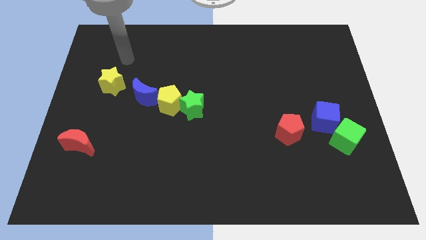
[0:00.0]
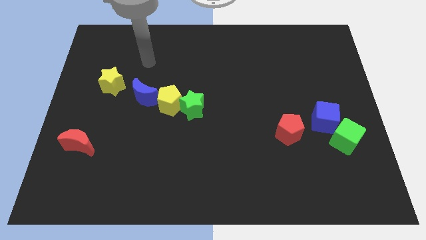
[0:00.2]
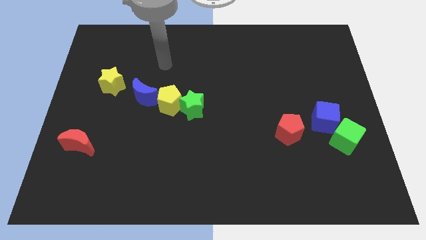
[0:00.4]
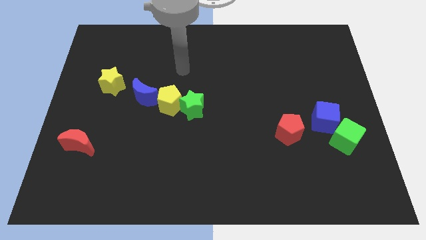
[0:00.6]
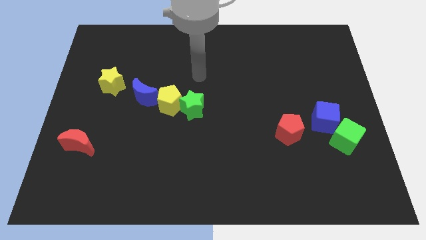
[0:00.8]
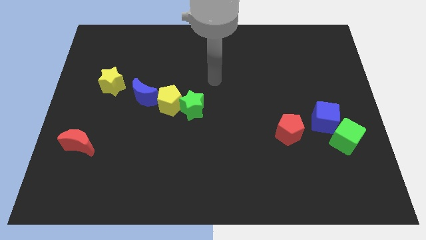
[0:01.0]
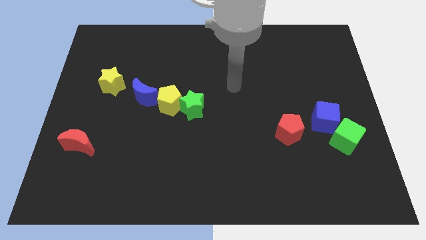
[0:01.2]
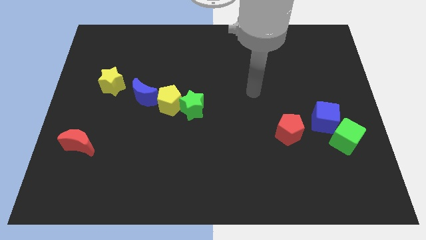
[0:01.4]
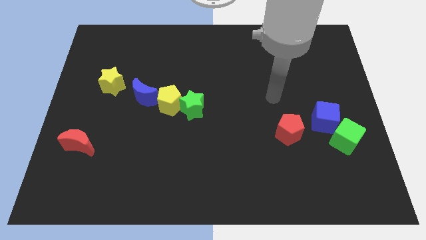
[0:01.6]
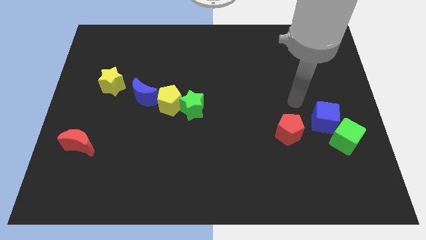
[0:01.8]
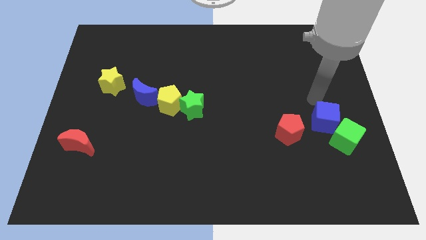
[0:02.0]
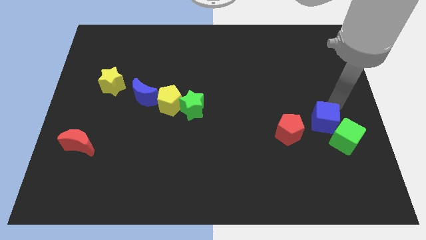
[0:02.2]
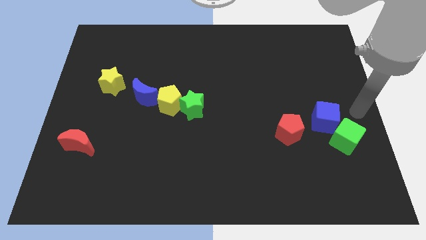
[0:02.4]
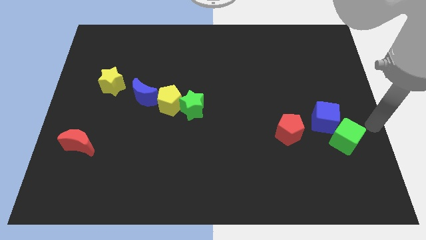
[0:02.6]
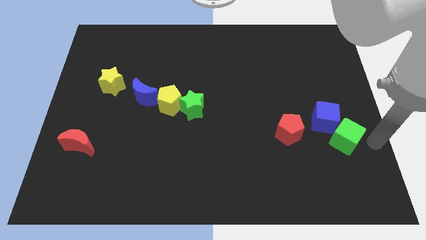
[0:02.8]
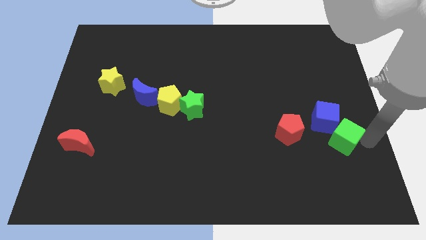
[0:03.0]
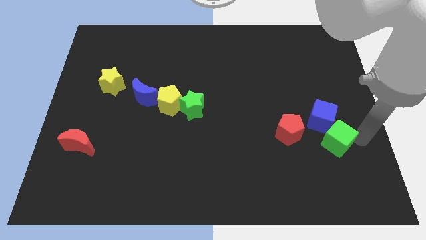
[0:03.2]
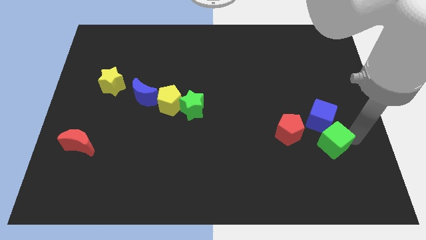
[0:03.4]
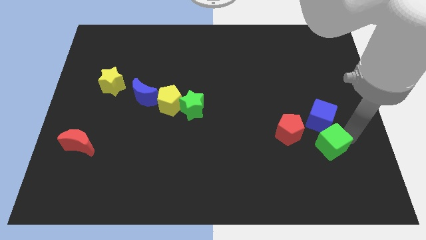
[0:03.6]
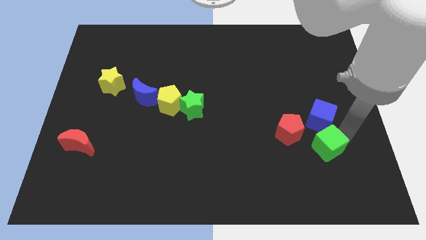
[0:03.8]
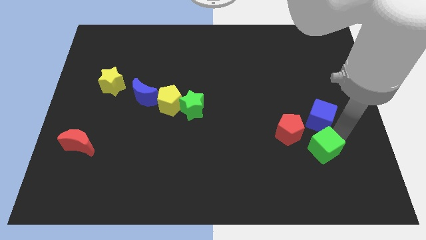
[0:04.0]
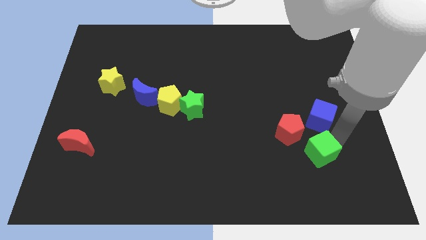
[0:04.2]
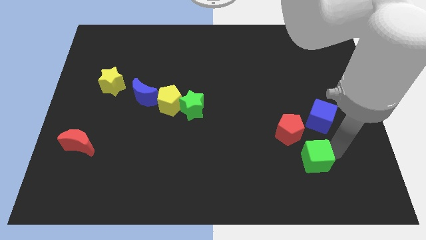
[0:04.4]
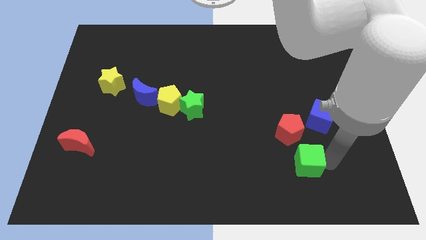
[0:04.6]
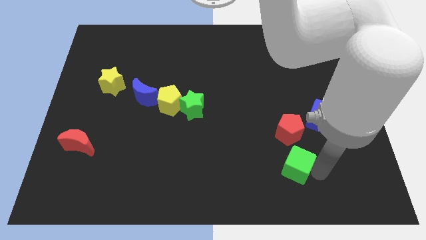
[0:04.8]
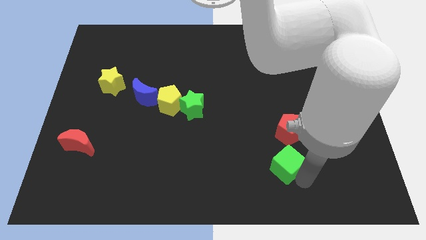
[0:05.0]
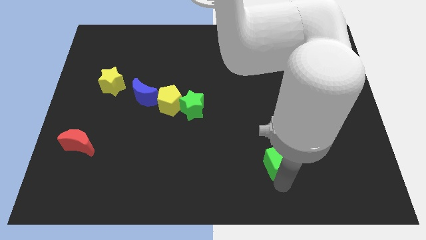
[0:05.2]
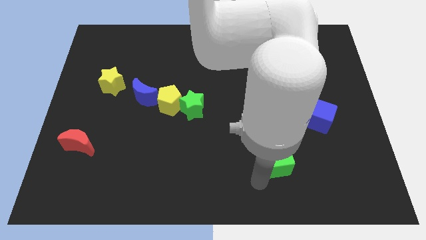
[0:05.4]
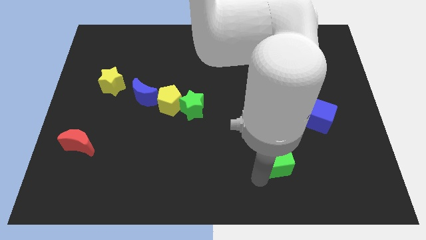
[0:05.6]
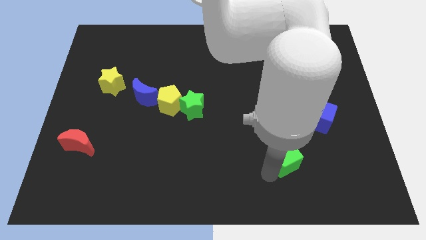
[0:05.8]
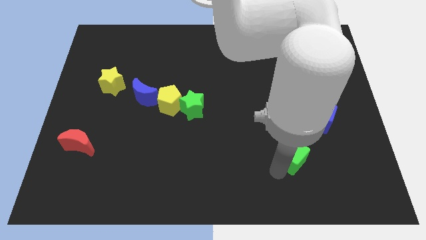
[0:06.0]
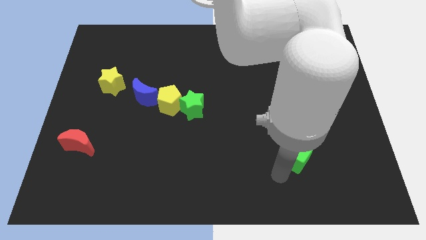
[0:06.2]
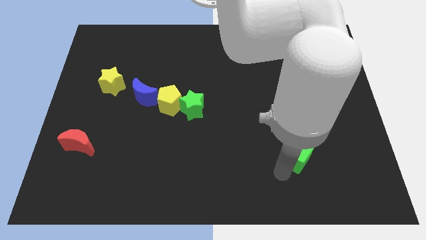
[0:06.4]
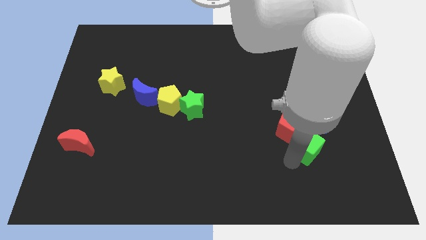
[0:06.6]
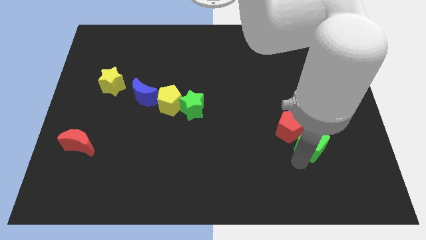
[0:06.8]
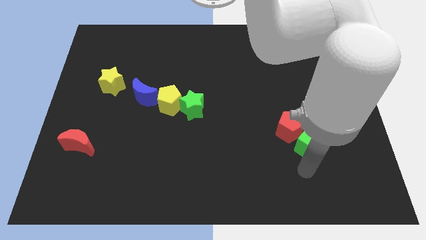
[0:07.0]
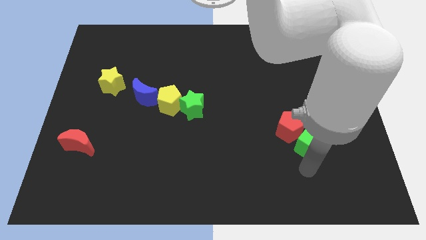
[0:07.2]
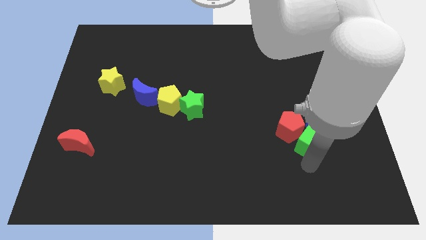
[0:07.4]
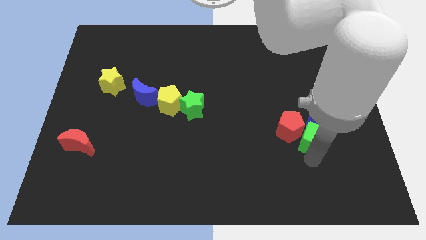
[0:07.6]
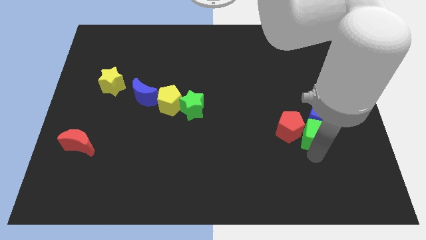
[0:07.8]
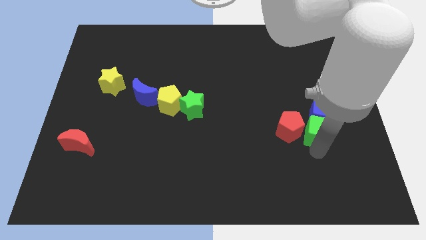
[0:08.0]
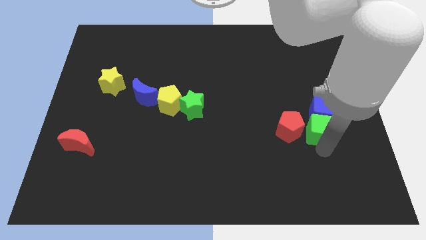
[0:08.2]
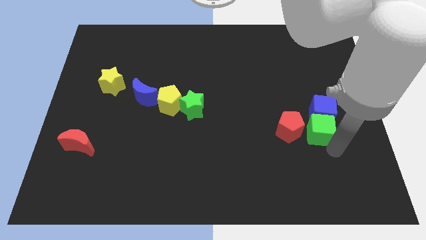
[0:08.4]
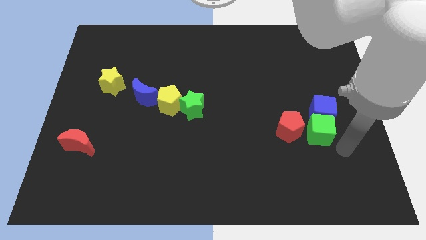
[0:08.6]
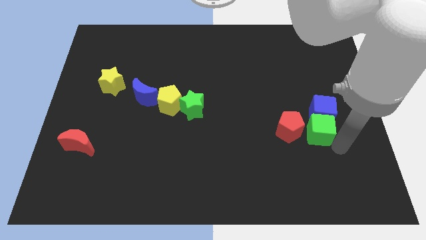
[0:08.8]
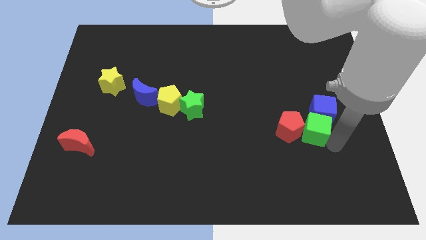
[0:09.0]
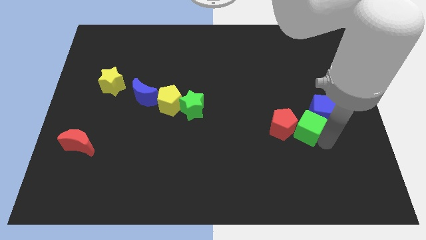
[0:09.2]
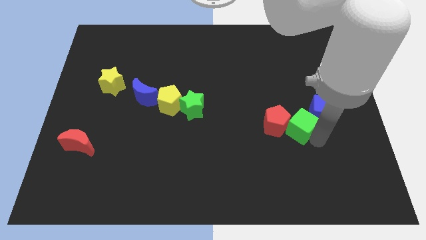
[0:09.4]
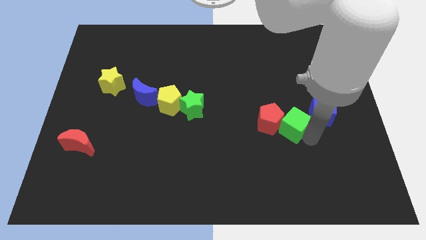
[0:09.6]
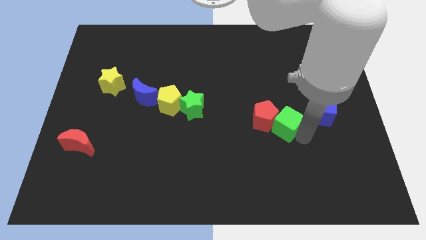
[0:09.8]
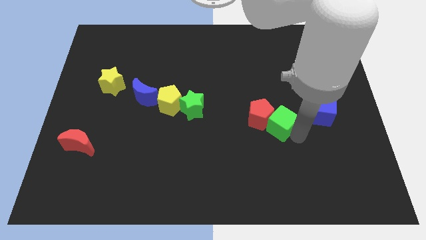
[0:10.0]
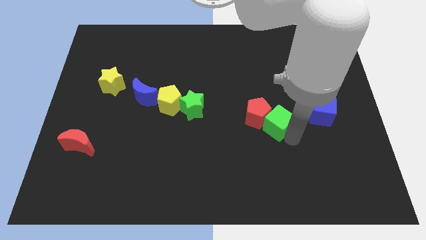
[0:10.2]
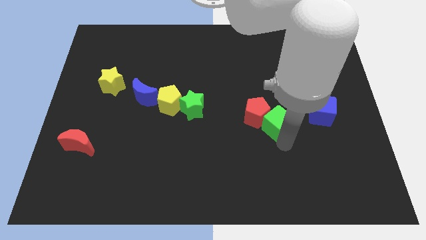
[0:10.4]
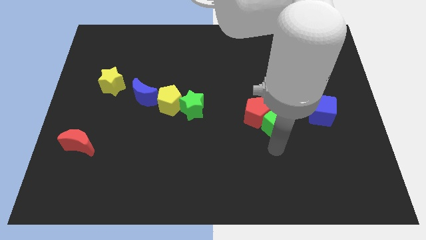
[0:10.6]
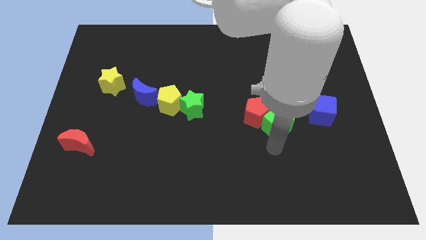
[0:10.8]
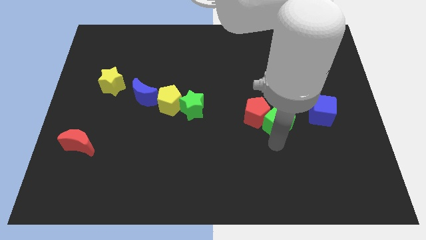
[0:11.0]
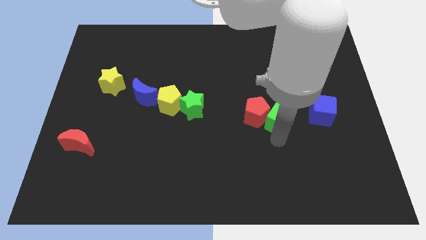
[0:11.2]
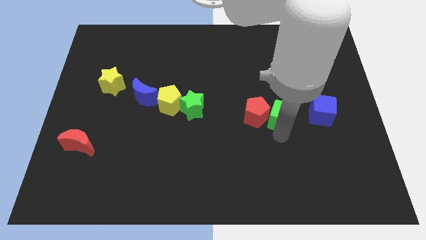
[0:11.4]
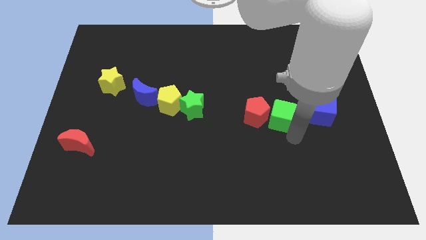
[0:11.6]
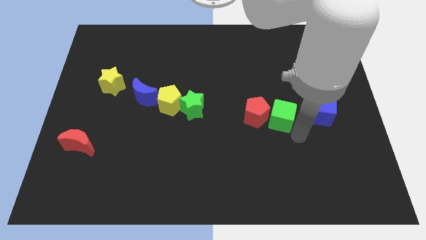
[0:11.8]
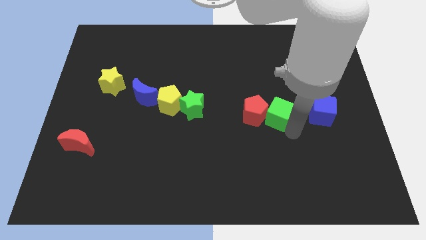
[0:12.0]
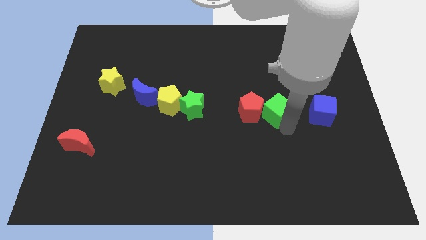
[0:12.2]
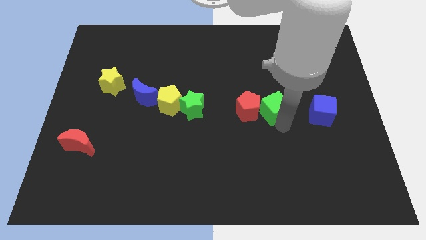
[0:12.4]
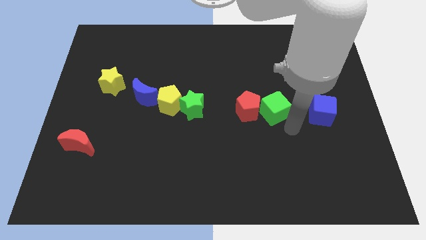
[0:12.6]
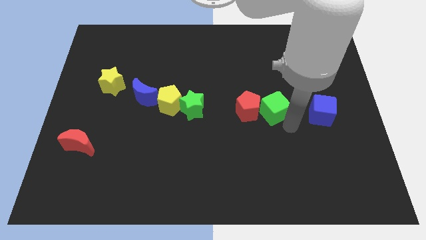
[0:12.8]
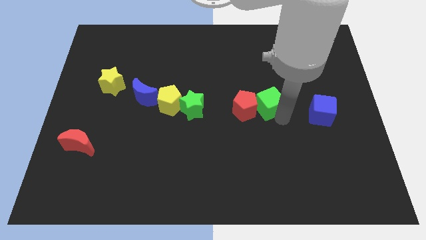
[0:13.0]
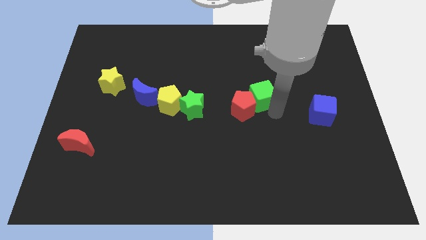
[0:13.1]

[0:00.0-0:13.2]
move the green cube up and left diagonally

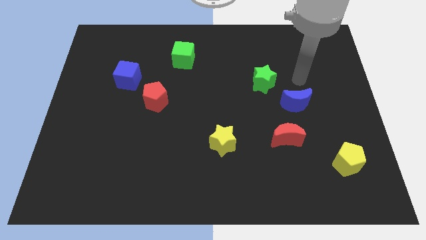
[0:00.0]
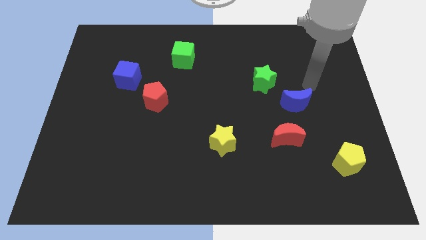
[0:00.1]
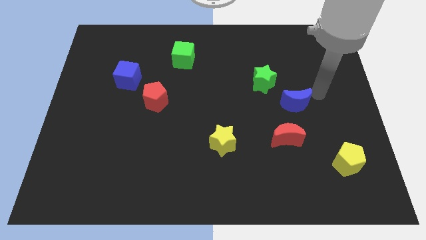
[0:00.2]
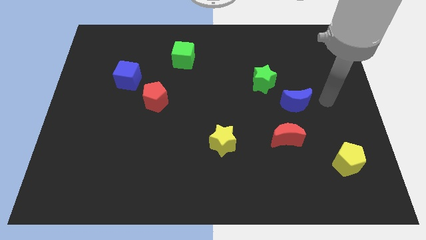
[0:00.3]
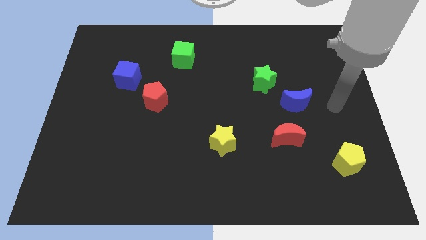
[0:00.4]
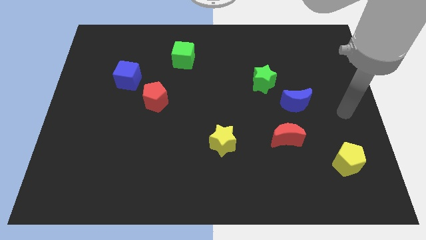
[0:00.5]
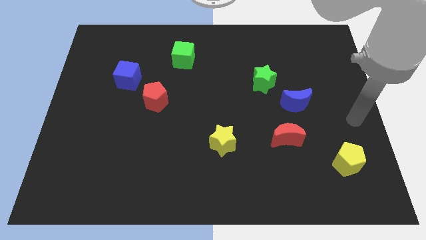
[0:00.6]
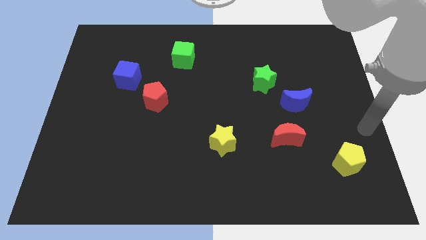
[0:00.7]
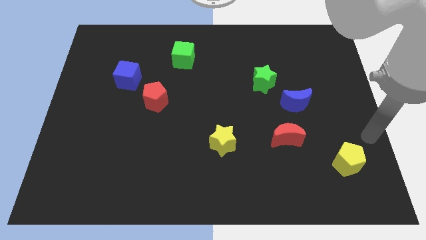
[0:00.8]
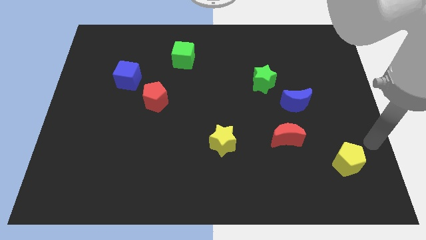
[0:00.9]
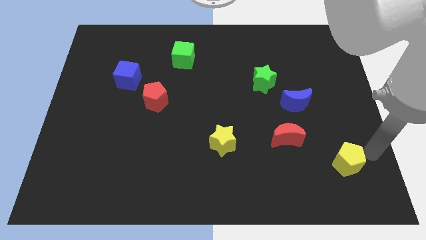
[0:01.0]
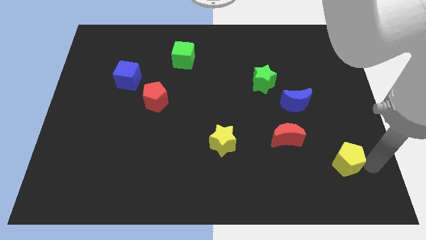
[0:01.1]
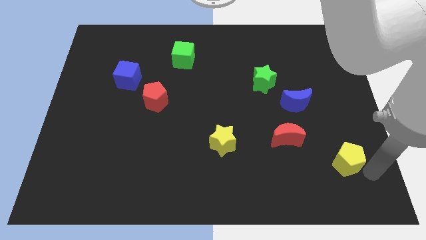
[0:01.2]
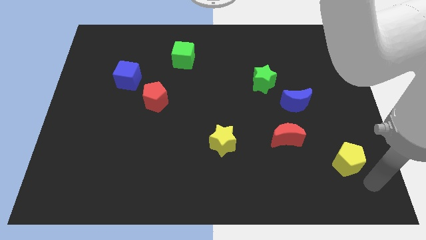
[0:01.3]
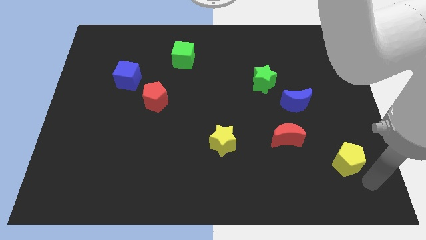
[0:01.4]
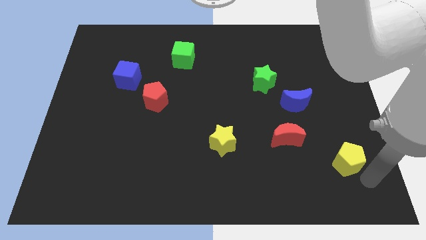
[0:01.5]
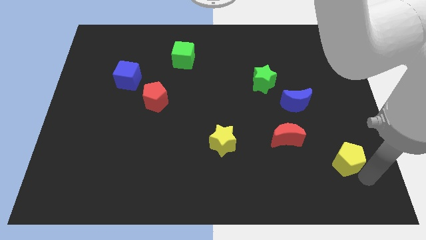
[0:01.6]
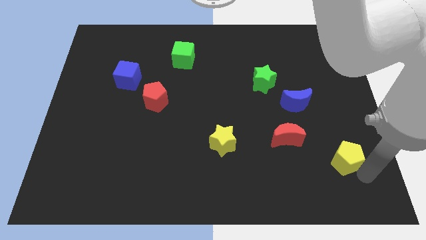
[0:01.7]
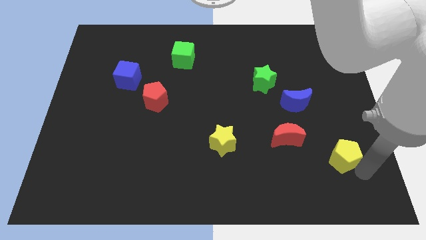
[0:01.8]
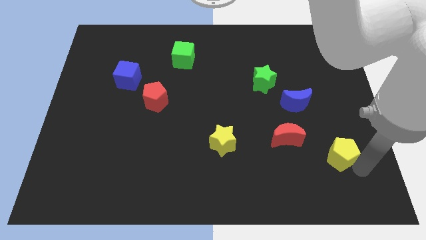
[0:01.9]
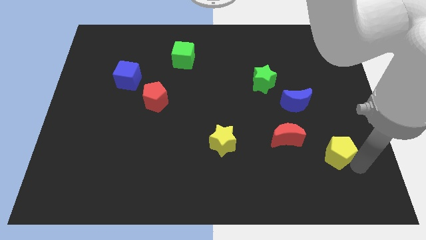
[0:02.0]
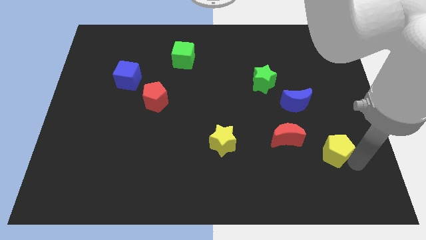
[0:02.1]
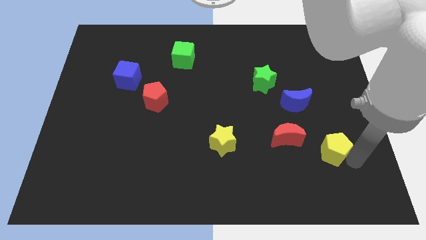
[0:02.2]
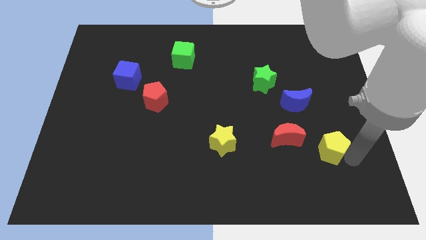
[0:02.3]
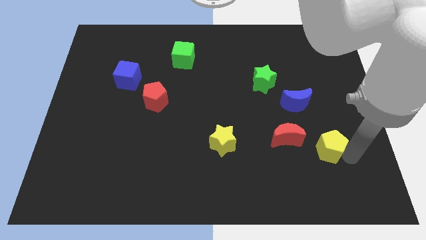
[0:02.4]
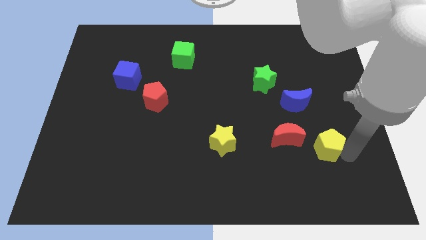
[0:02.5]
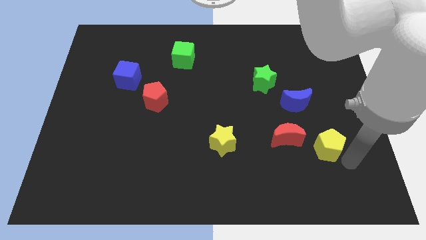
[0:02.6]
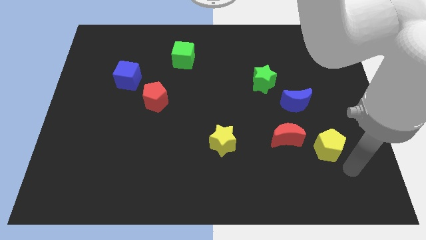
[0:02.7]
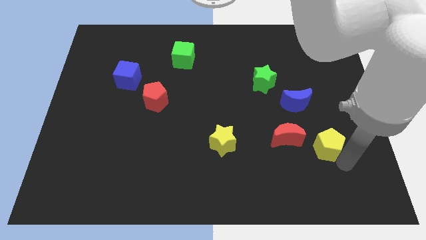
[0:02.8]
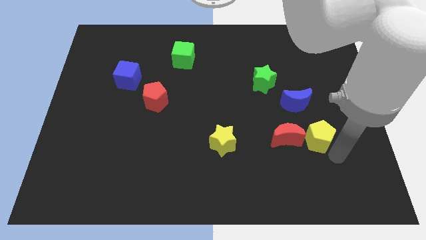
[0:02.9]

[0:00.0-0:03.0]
push the yellow pentagon up and left a little bit
